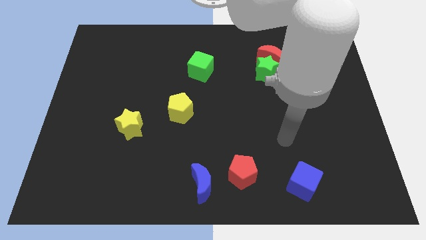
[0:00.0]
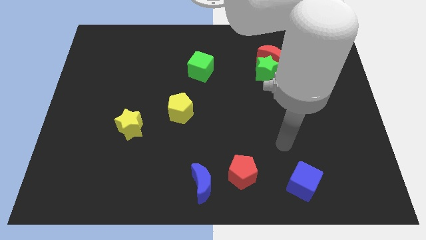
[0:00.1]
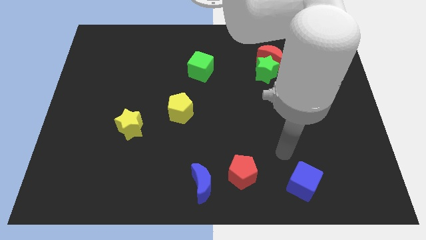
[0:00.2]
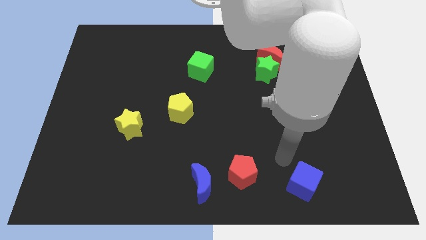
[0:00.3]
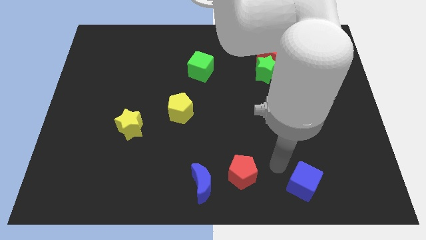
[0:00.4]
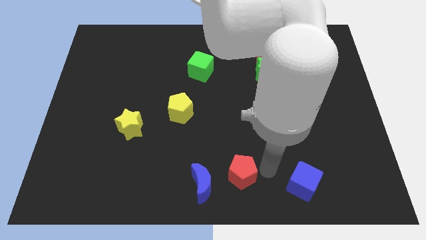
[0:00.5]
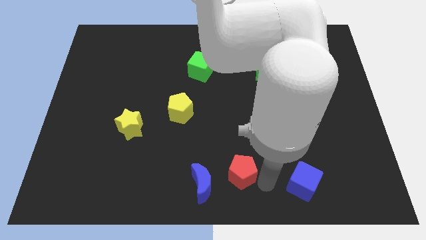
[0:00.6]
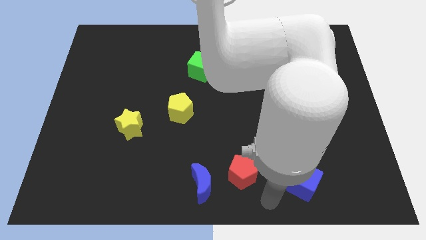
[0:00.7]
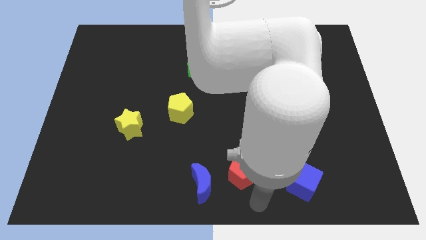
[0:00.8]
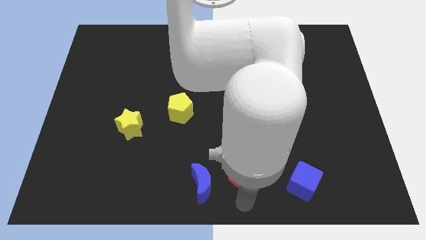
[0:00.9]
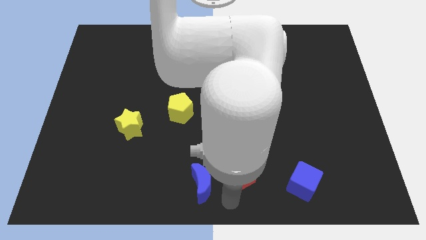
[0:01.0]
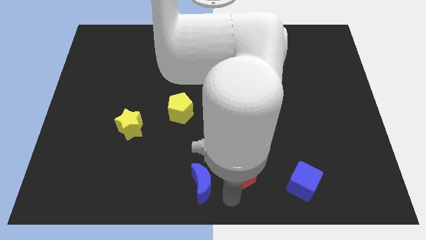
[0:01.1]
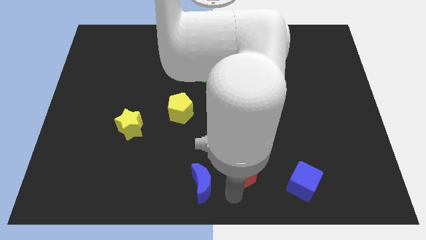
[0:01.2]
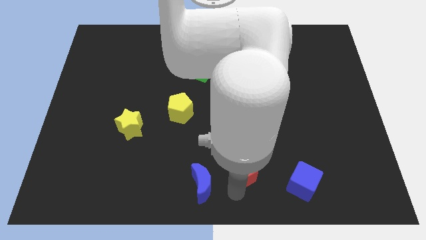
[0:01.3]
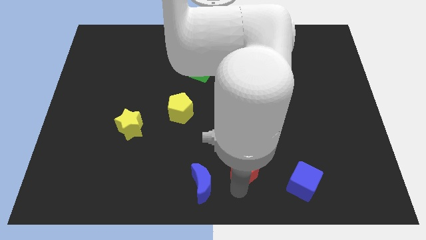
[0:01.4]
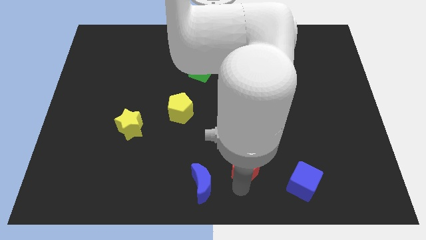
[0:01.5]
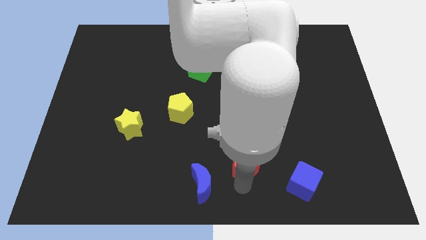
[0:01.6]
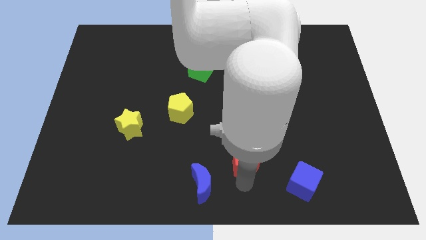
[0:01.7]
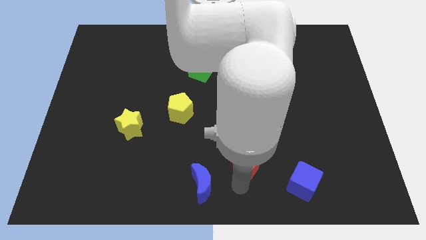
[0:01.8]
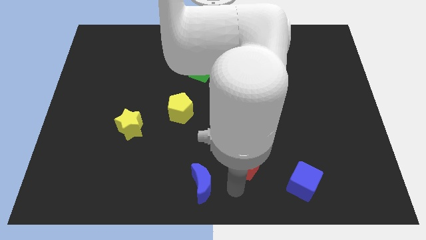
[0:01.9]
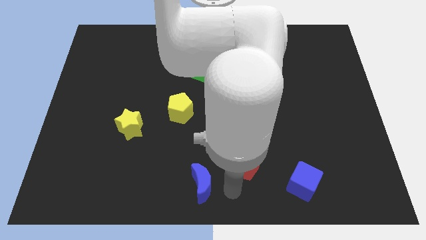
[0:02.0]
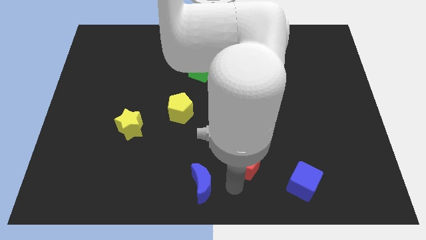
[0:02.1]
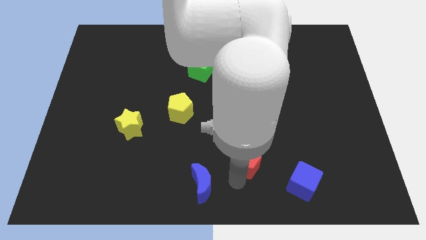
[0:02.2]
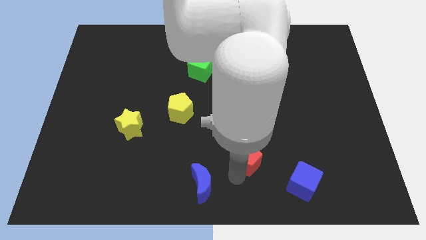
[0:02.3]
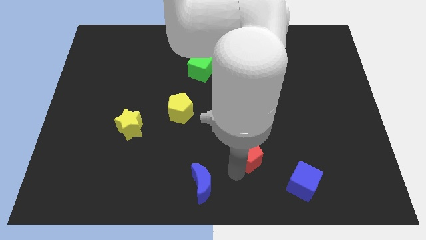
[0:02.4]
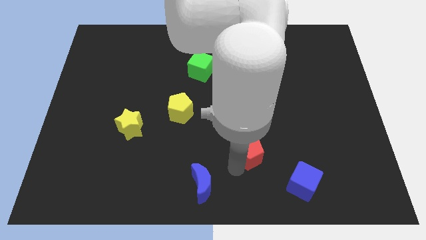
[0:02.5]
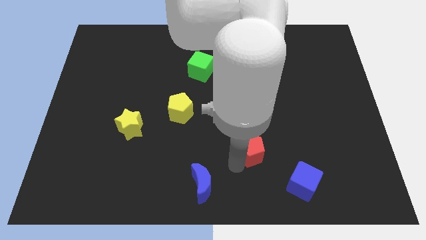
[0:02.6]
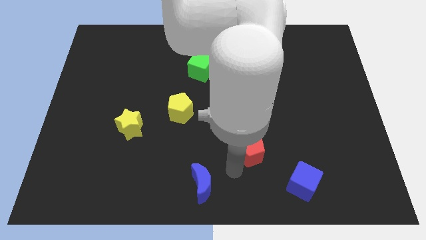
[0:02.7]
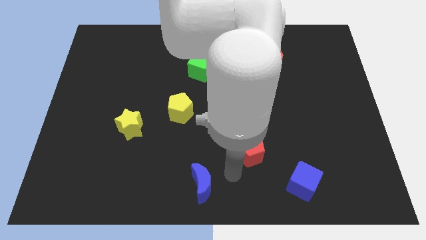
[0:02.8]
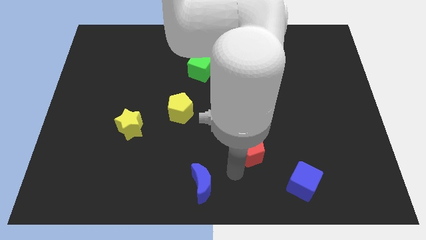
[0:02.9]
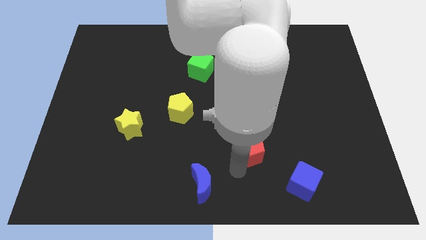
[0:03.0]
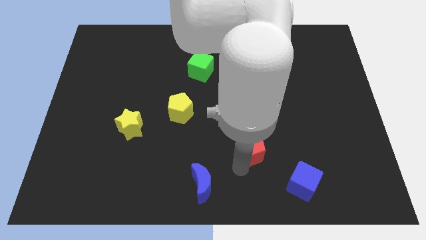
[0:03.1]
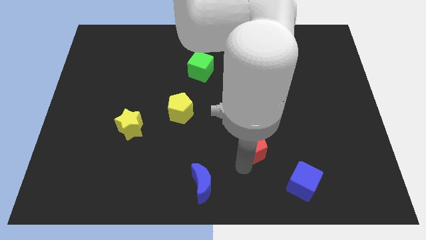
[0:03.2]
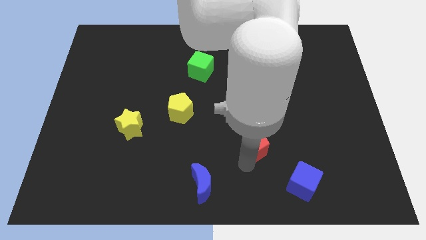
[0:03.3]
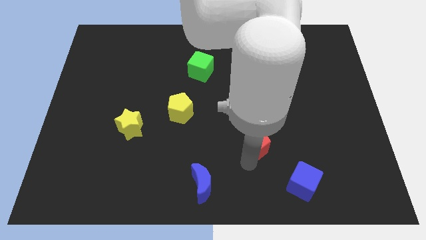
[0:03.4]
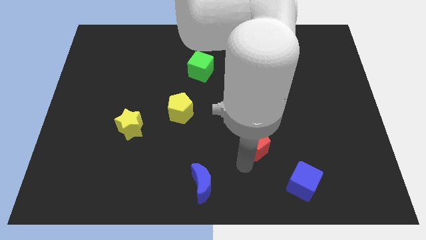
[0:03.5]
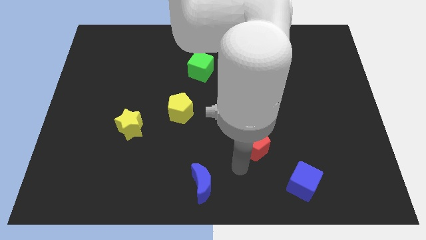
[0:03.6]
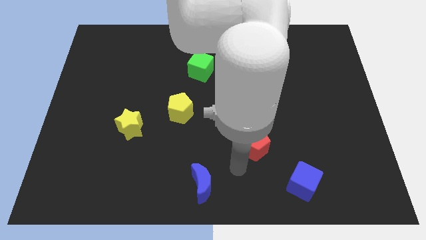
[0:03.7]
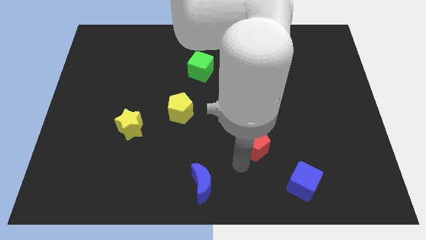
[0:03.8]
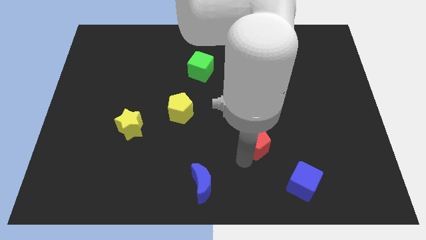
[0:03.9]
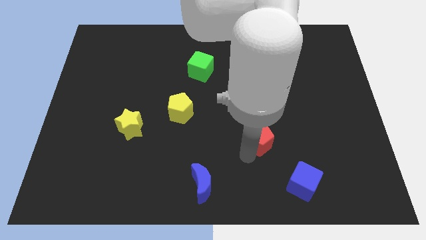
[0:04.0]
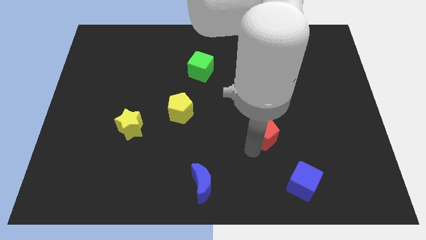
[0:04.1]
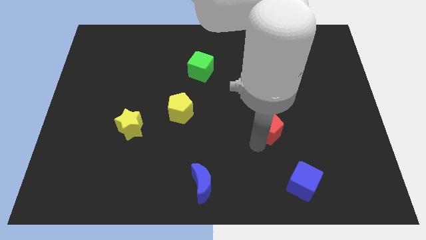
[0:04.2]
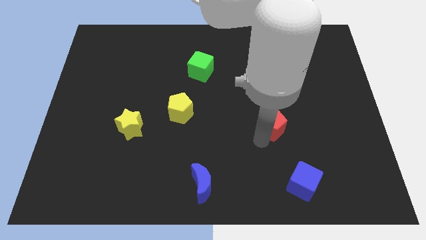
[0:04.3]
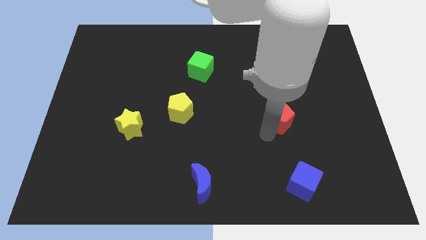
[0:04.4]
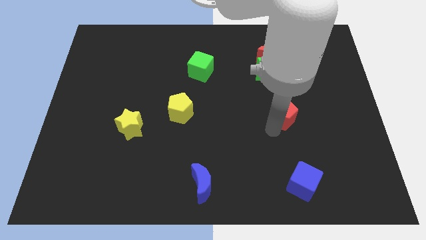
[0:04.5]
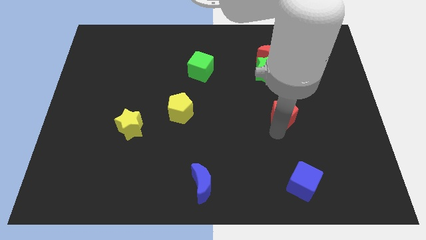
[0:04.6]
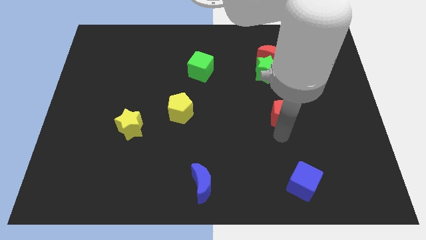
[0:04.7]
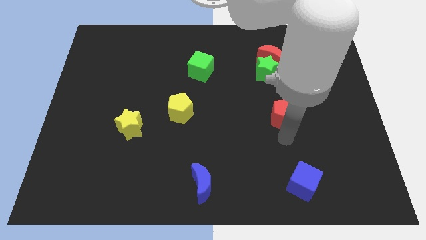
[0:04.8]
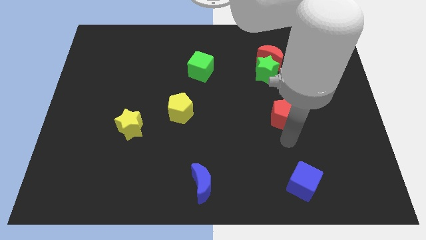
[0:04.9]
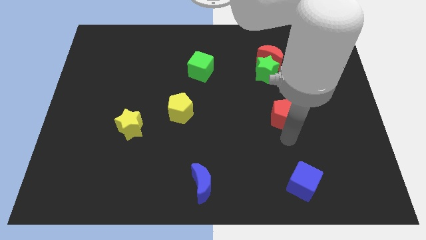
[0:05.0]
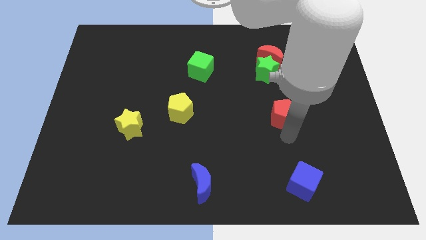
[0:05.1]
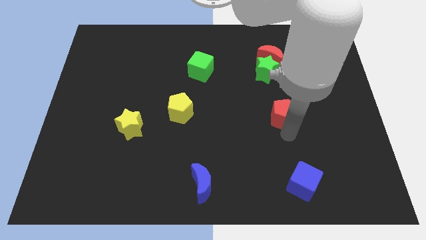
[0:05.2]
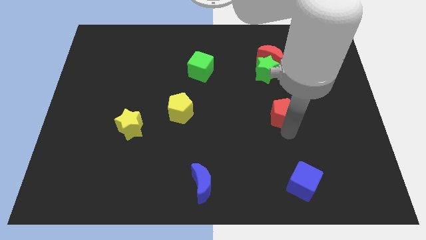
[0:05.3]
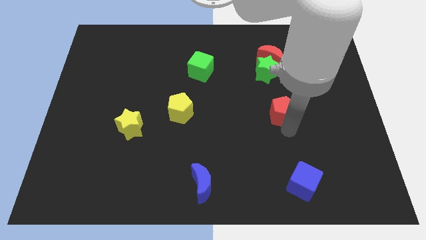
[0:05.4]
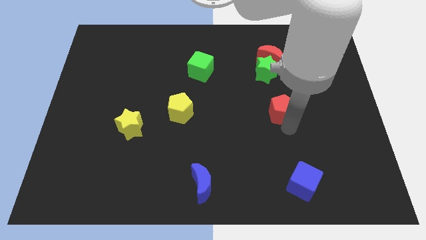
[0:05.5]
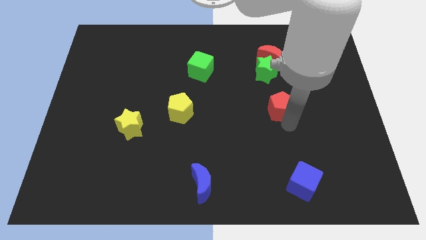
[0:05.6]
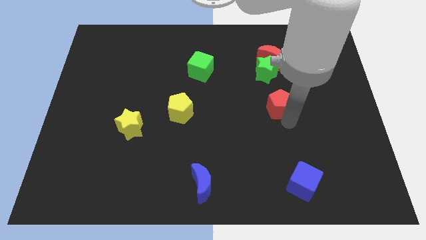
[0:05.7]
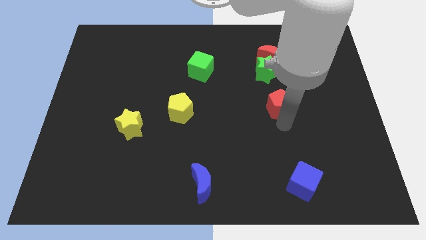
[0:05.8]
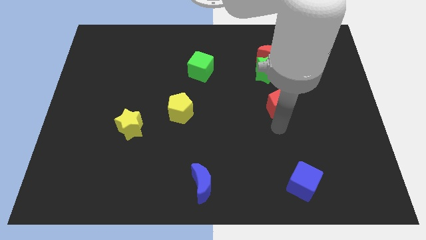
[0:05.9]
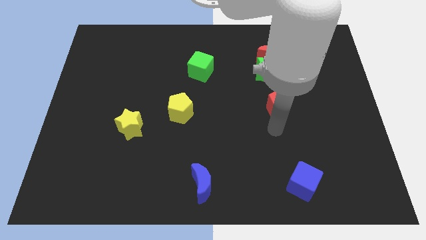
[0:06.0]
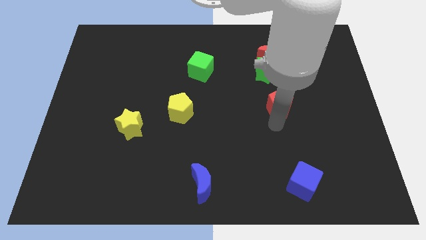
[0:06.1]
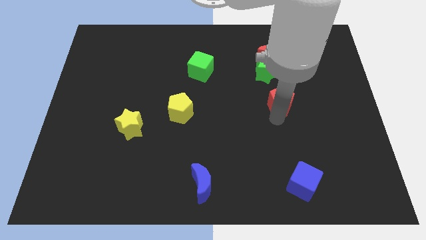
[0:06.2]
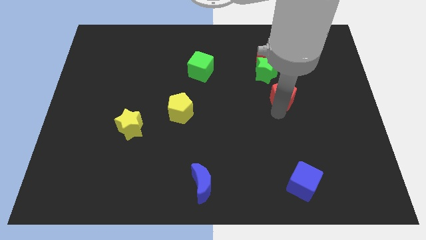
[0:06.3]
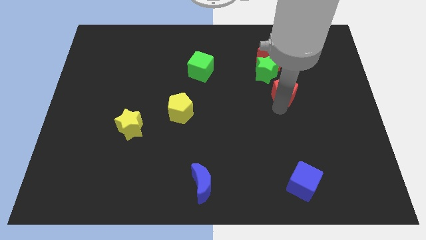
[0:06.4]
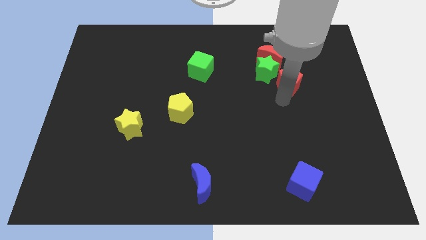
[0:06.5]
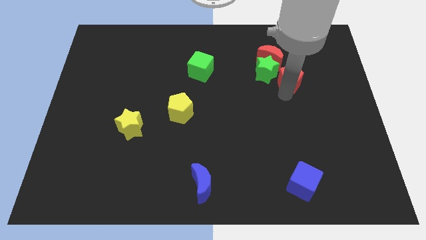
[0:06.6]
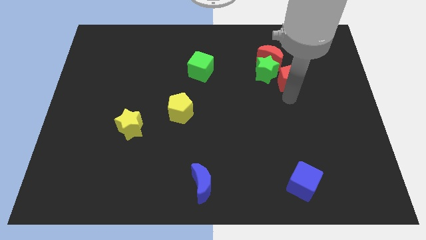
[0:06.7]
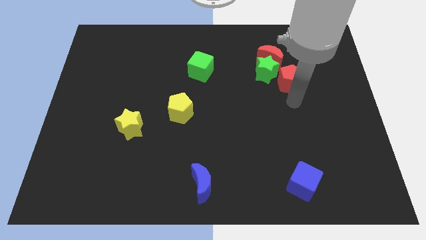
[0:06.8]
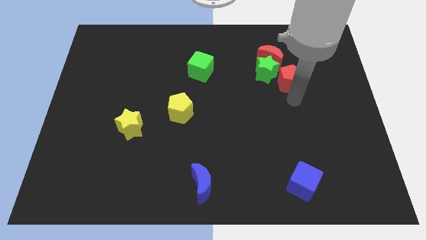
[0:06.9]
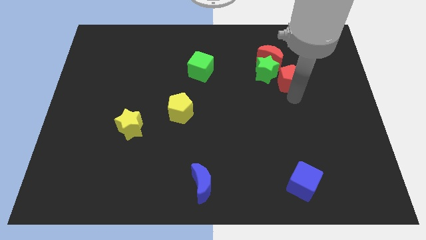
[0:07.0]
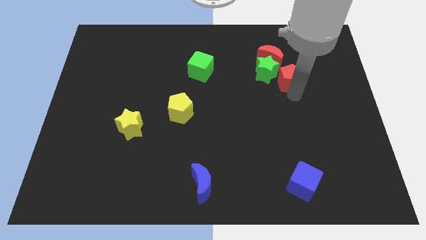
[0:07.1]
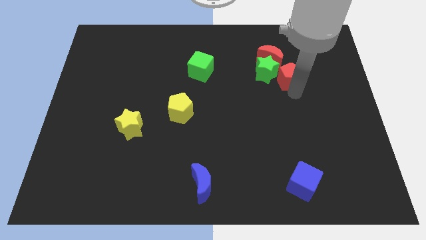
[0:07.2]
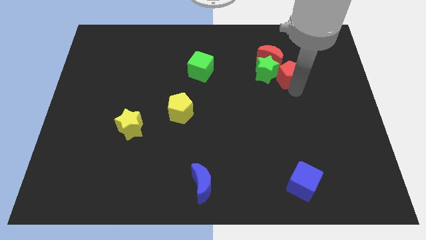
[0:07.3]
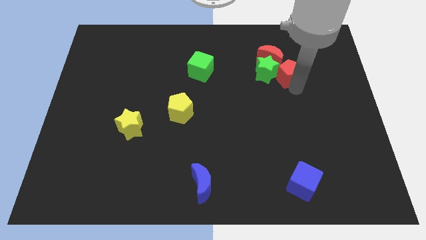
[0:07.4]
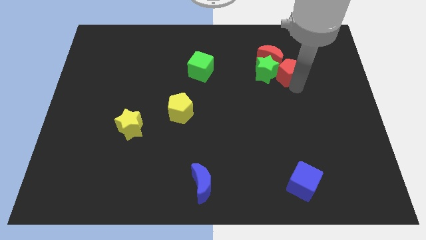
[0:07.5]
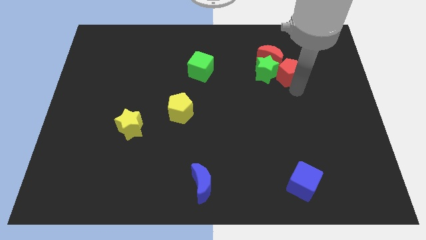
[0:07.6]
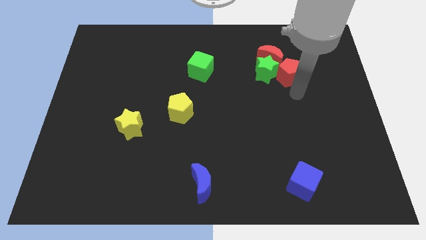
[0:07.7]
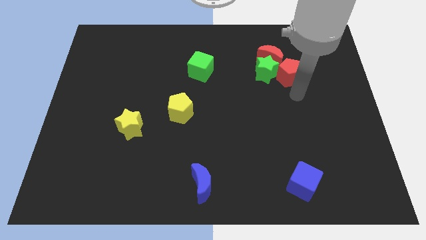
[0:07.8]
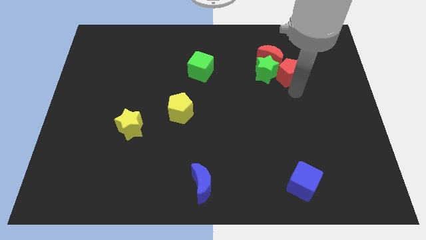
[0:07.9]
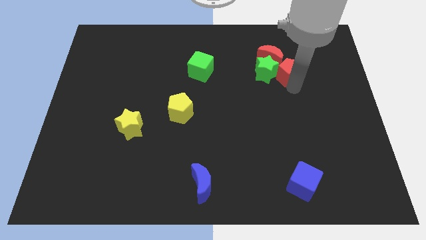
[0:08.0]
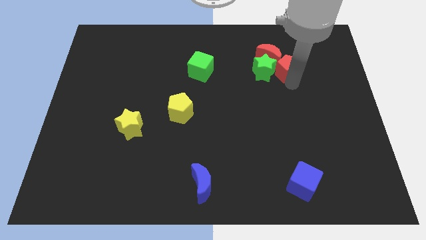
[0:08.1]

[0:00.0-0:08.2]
slide the red pentagon next to the red moon
